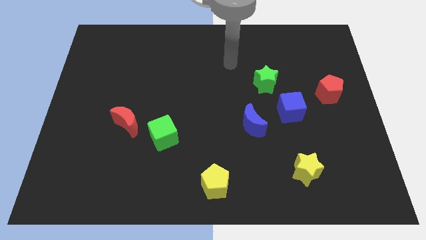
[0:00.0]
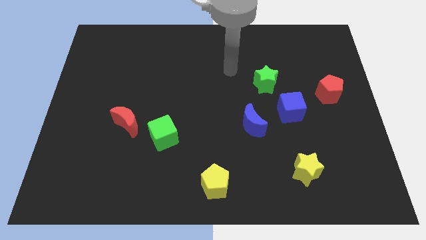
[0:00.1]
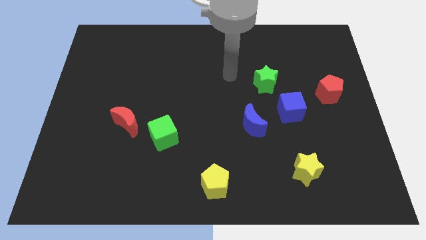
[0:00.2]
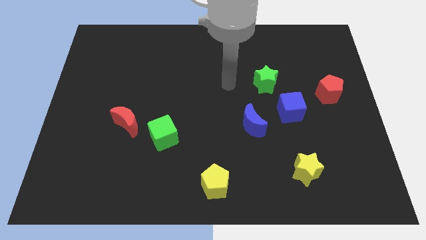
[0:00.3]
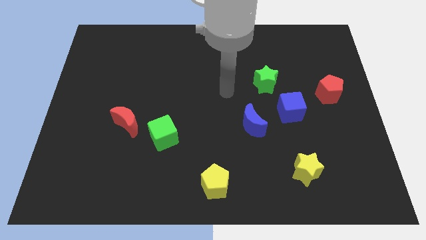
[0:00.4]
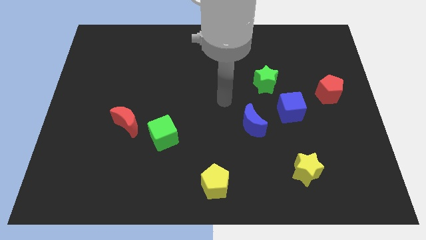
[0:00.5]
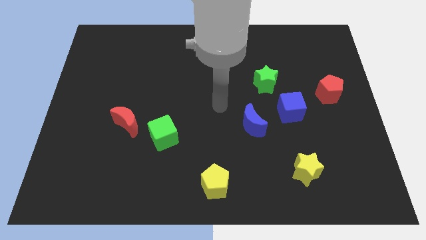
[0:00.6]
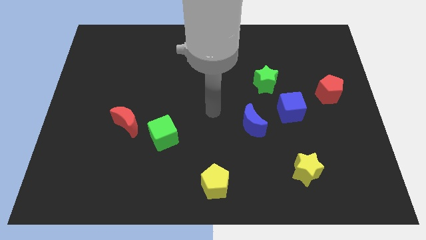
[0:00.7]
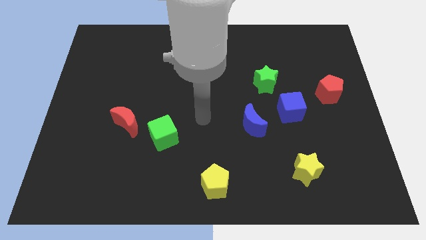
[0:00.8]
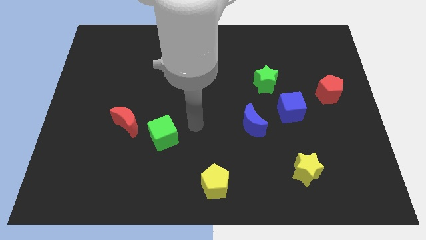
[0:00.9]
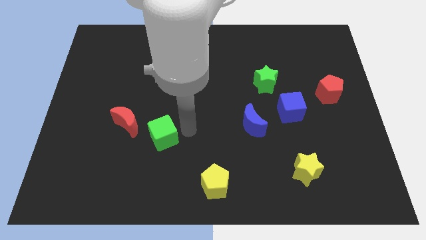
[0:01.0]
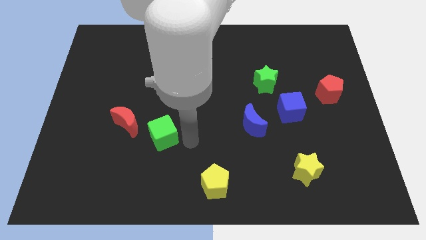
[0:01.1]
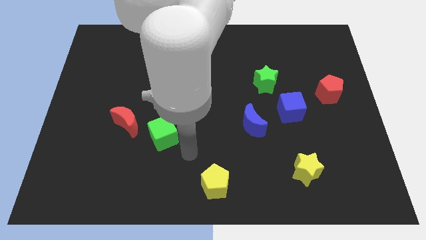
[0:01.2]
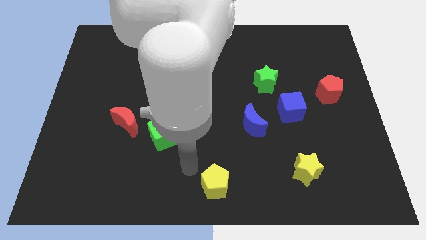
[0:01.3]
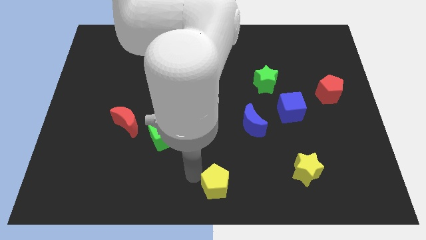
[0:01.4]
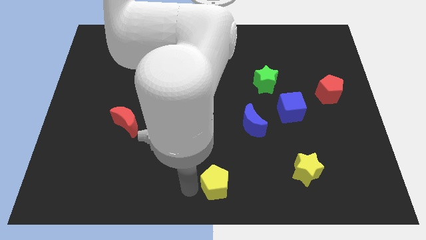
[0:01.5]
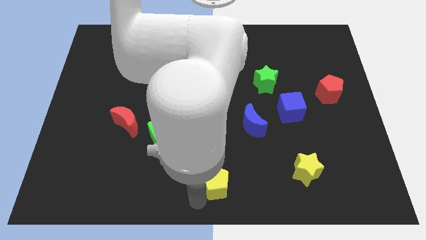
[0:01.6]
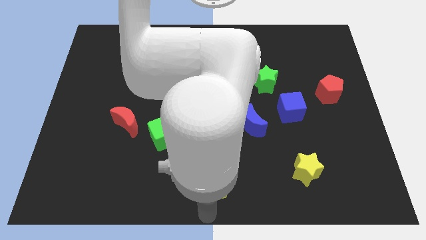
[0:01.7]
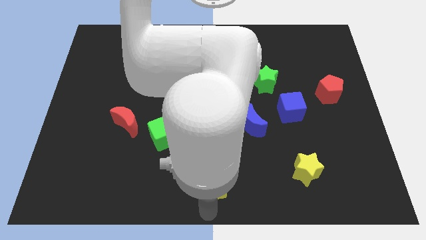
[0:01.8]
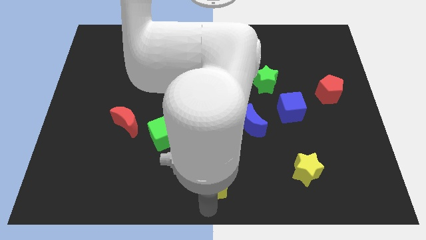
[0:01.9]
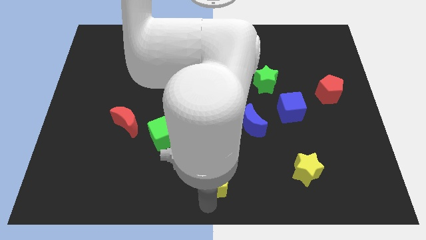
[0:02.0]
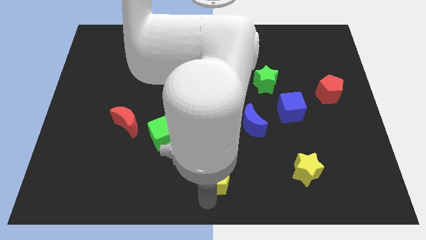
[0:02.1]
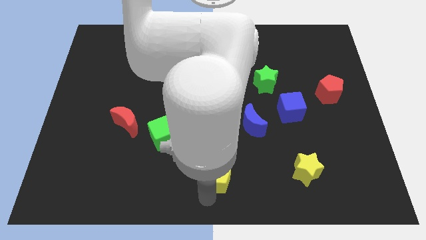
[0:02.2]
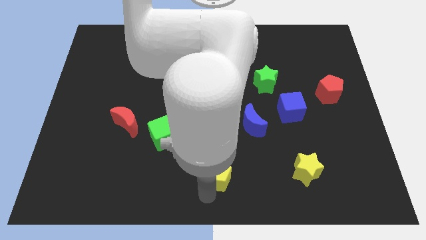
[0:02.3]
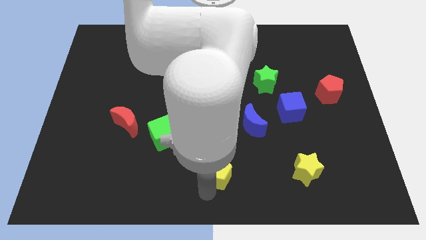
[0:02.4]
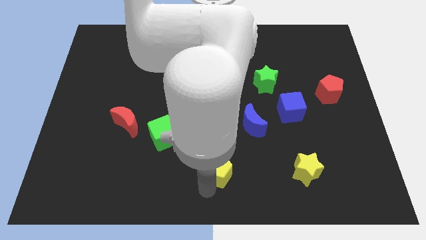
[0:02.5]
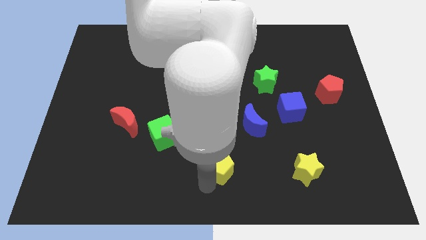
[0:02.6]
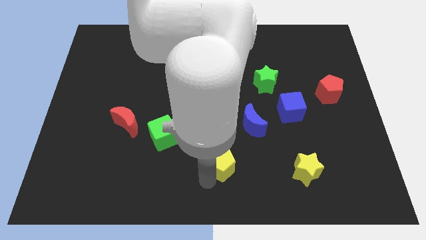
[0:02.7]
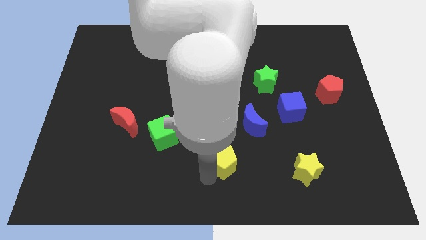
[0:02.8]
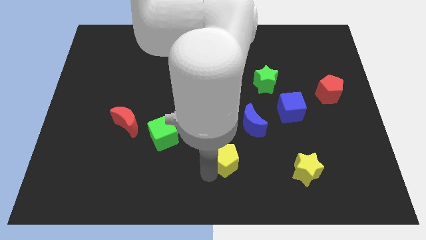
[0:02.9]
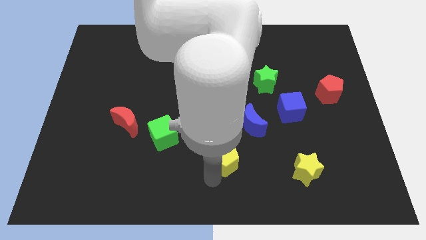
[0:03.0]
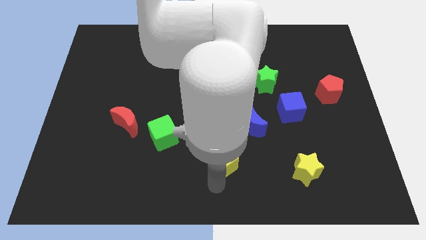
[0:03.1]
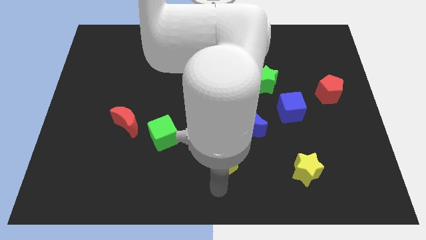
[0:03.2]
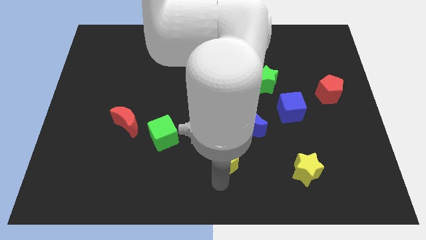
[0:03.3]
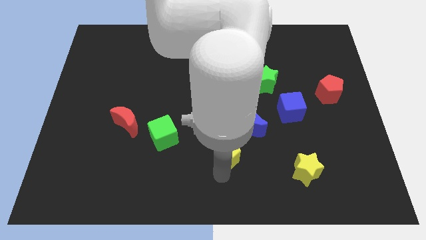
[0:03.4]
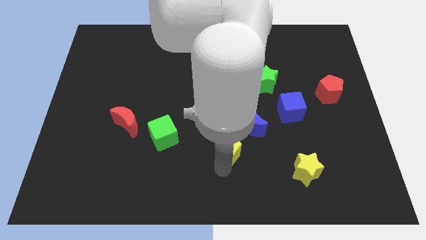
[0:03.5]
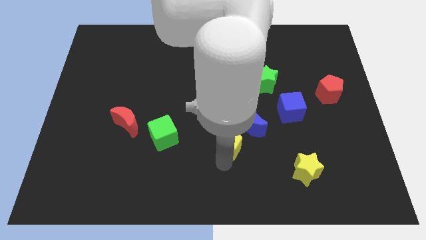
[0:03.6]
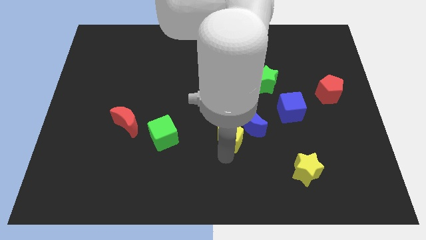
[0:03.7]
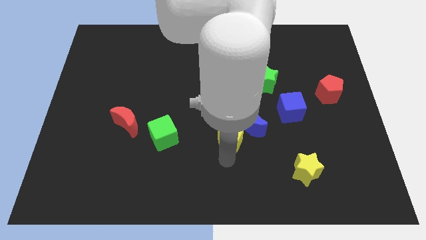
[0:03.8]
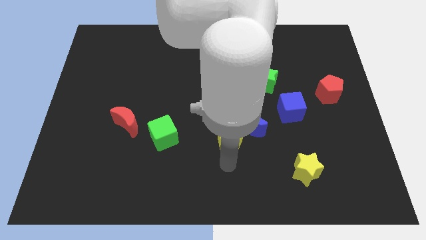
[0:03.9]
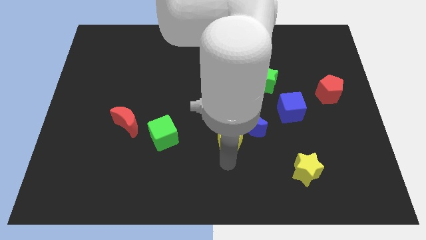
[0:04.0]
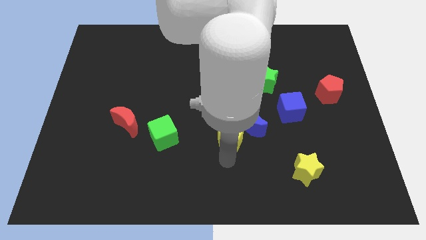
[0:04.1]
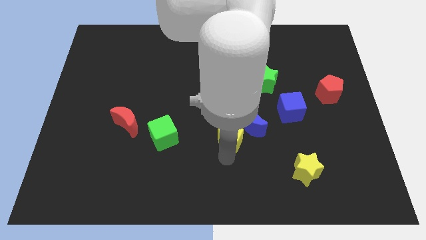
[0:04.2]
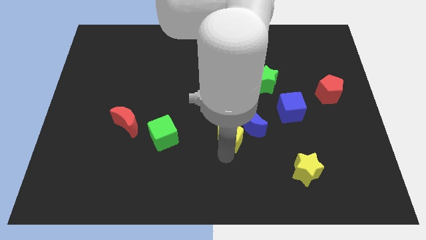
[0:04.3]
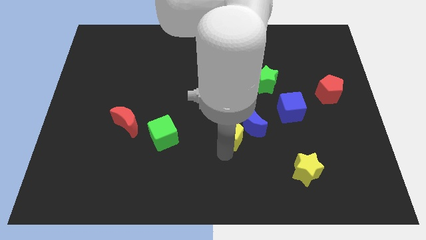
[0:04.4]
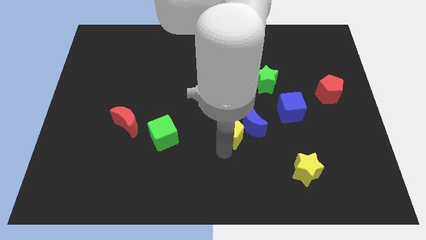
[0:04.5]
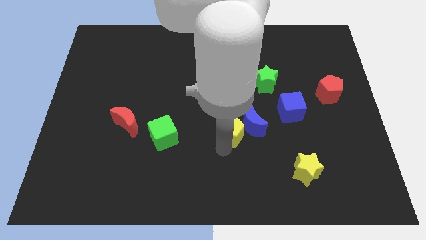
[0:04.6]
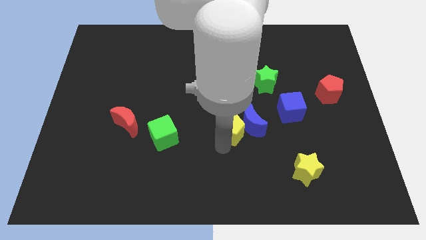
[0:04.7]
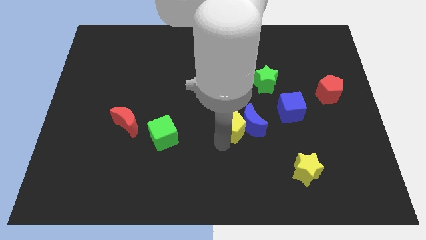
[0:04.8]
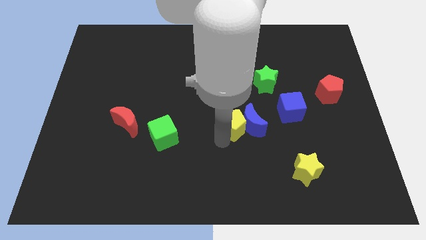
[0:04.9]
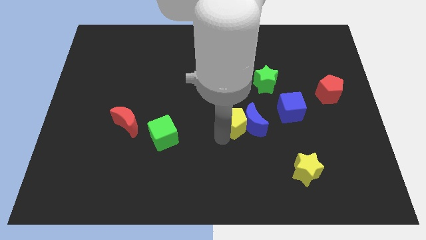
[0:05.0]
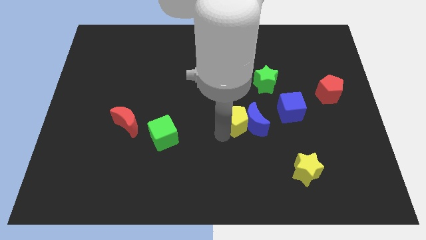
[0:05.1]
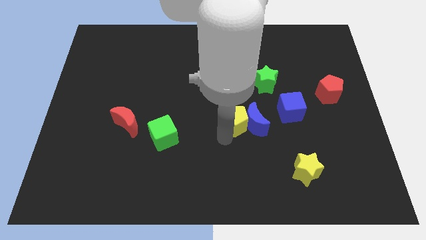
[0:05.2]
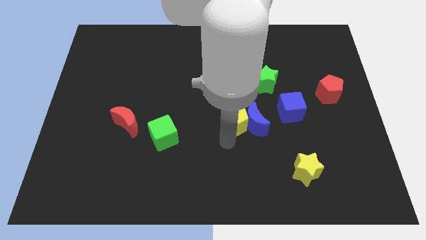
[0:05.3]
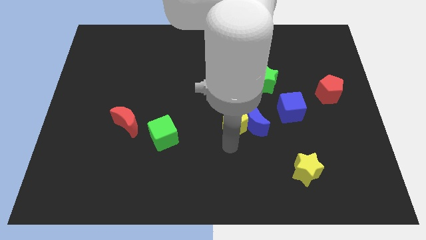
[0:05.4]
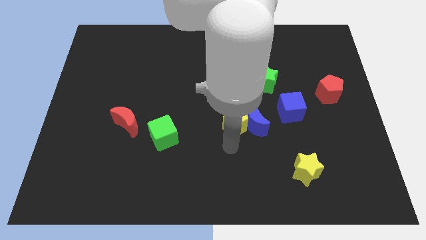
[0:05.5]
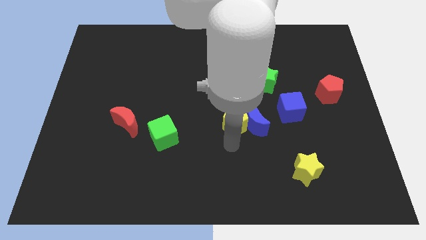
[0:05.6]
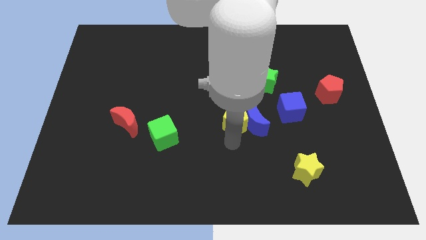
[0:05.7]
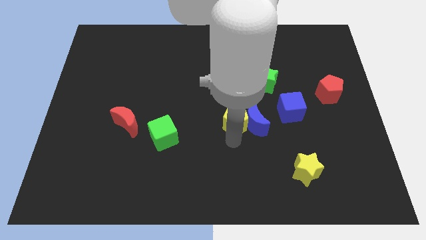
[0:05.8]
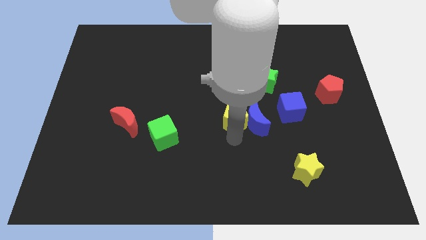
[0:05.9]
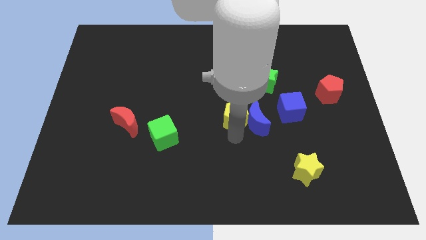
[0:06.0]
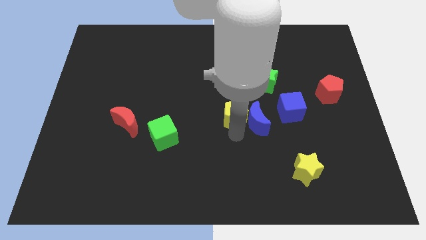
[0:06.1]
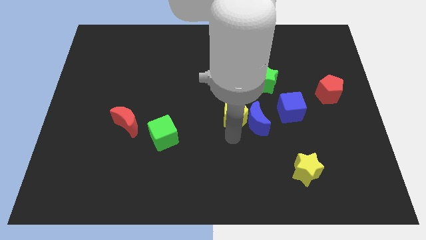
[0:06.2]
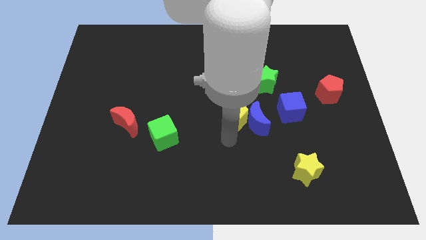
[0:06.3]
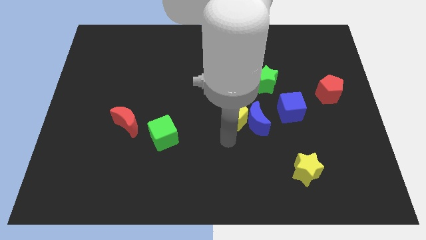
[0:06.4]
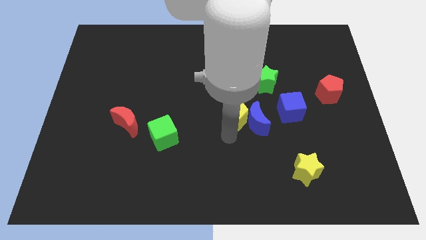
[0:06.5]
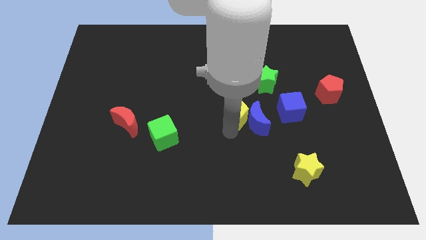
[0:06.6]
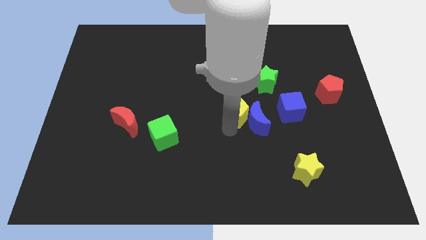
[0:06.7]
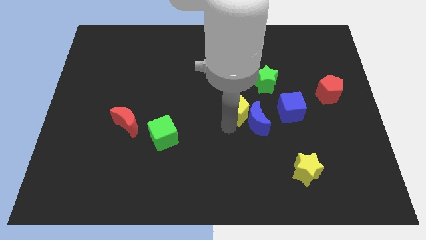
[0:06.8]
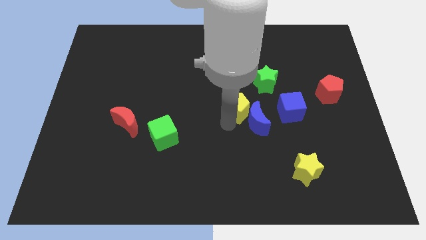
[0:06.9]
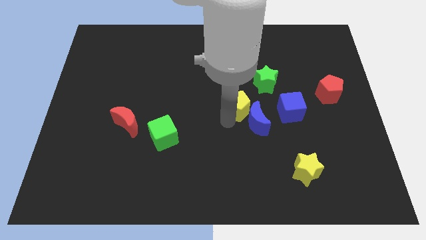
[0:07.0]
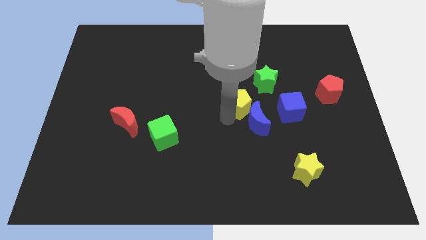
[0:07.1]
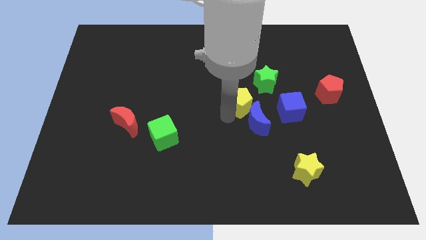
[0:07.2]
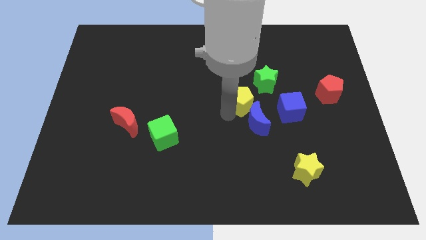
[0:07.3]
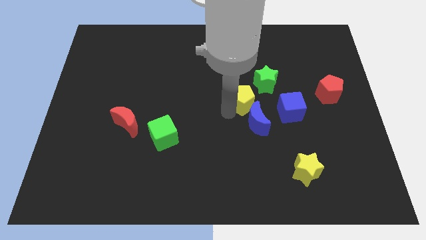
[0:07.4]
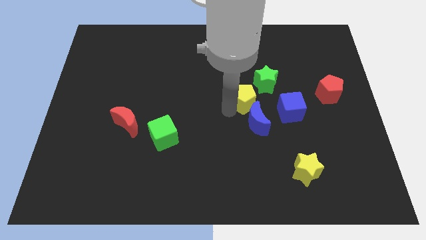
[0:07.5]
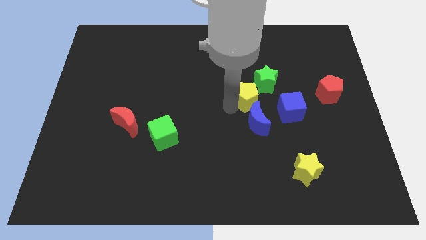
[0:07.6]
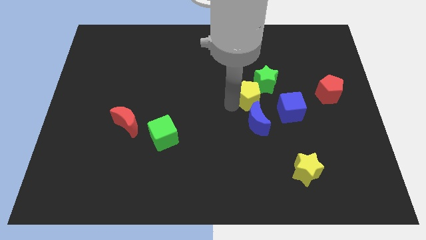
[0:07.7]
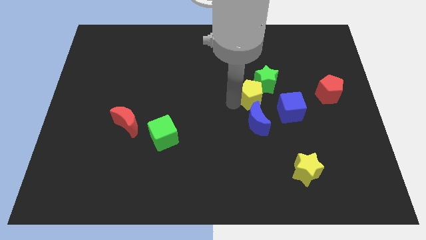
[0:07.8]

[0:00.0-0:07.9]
put the yellow pentagon towards the green star
